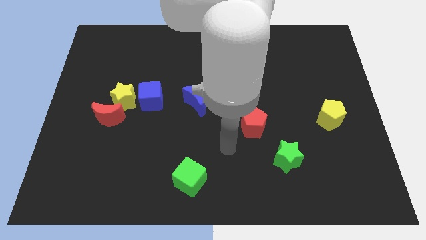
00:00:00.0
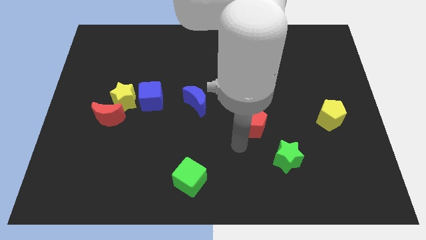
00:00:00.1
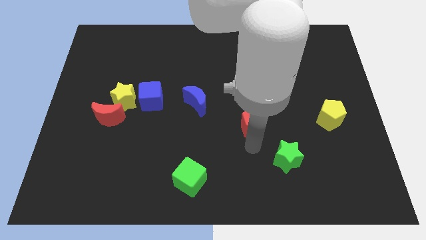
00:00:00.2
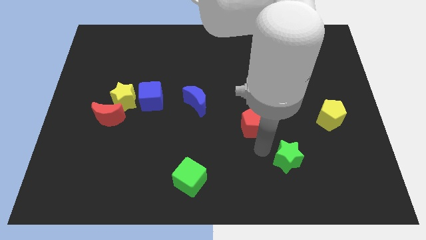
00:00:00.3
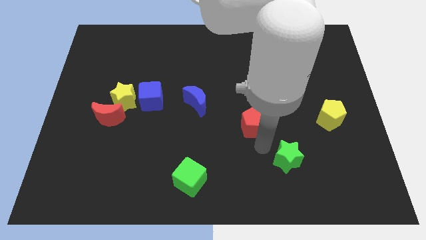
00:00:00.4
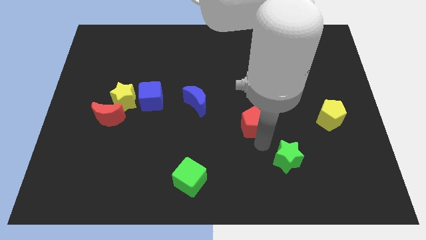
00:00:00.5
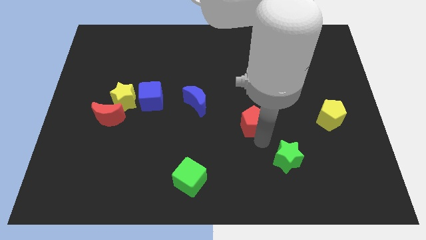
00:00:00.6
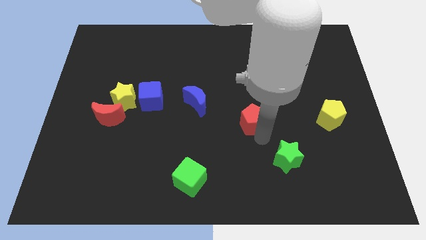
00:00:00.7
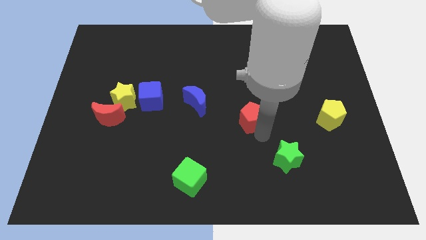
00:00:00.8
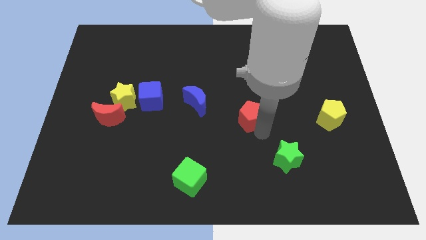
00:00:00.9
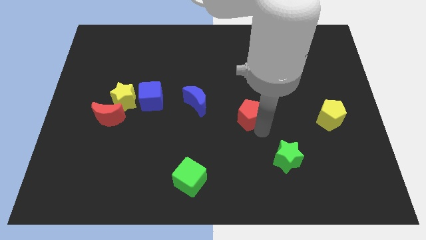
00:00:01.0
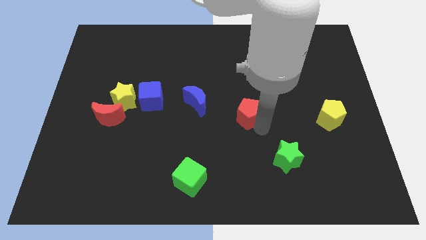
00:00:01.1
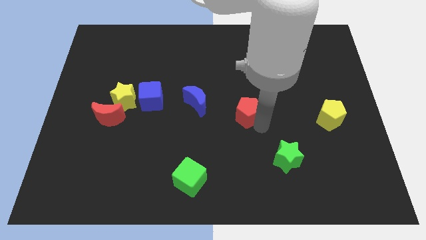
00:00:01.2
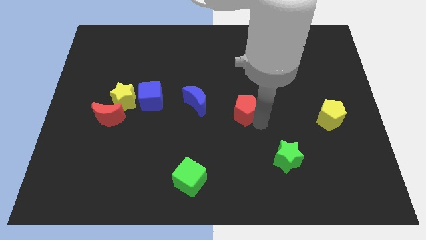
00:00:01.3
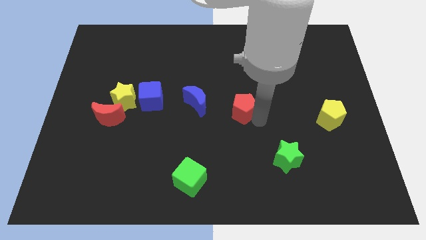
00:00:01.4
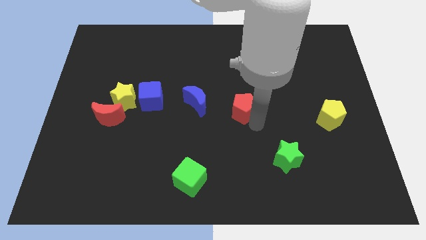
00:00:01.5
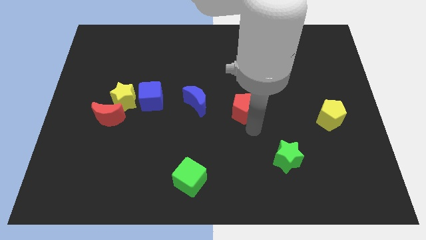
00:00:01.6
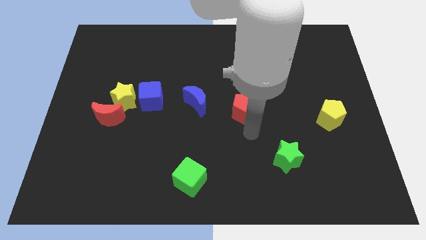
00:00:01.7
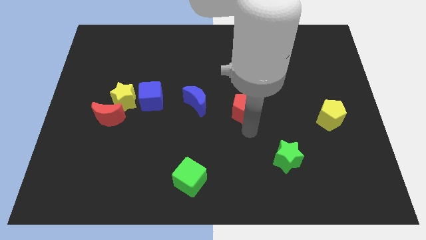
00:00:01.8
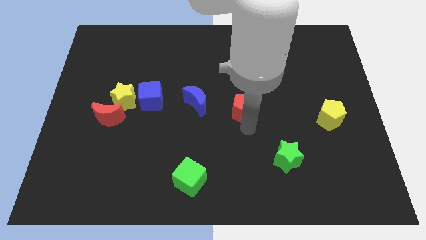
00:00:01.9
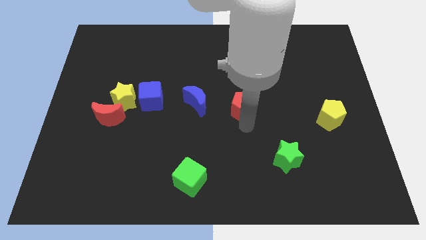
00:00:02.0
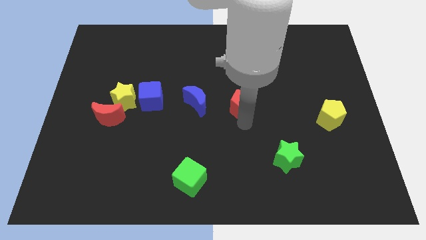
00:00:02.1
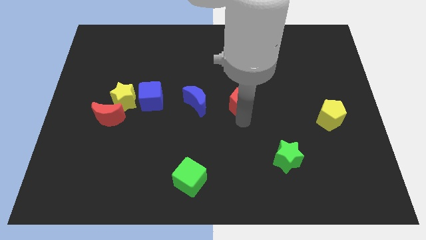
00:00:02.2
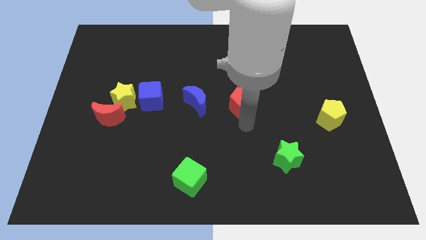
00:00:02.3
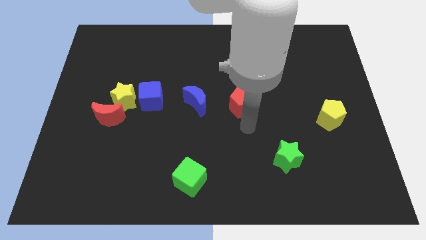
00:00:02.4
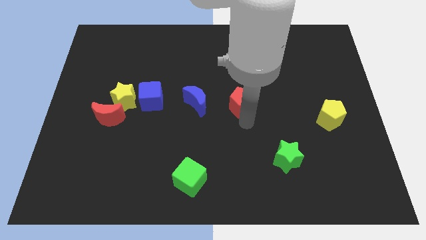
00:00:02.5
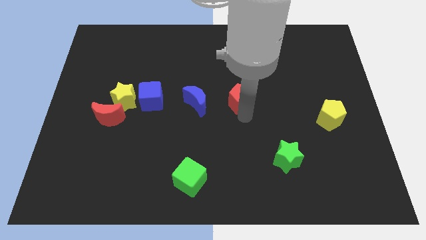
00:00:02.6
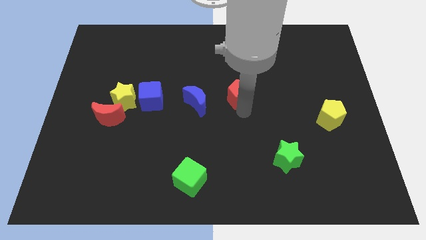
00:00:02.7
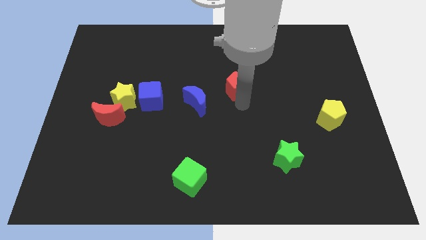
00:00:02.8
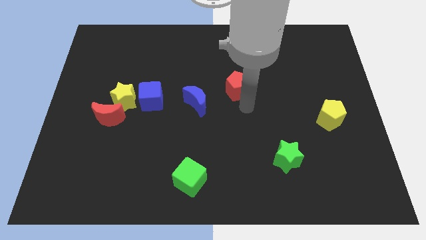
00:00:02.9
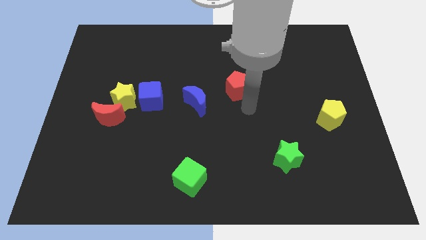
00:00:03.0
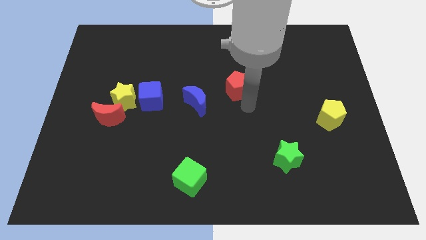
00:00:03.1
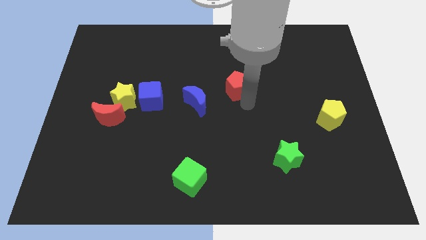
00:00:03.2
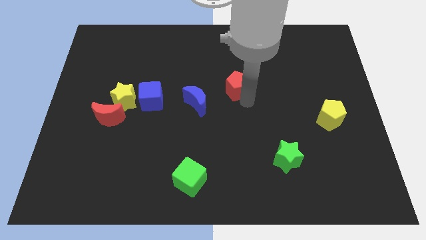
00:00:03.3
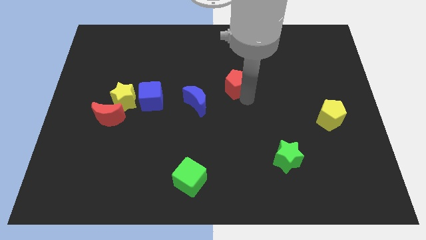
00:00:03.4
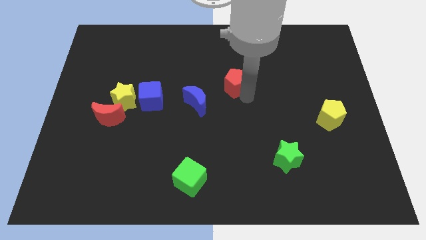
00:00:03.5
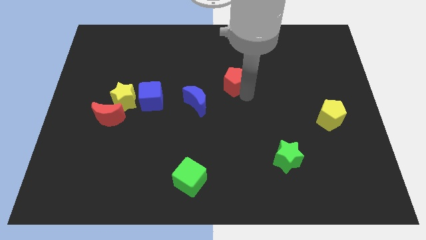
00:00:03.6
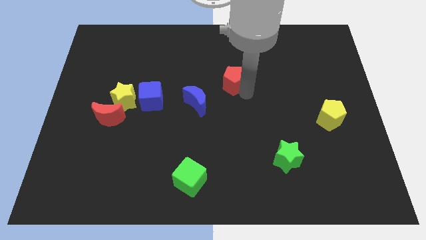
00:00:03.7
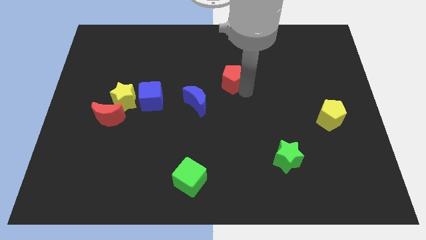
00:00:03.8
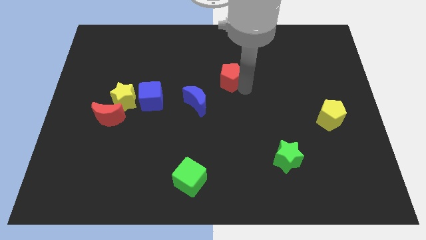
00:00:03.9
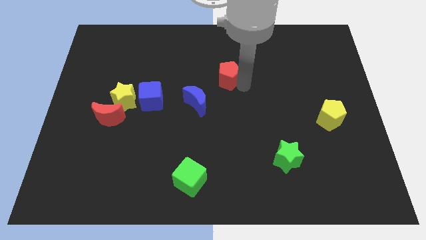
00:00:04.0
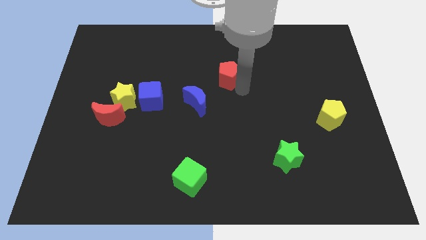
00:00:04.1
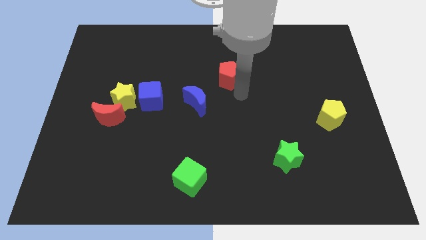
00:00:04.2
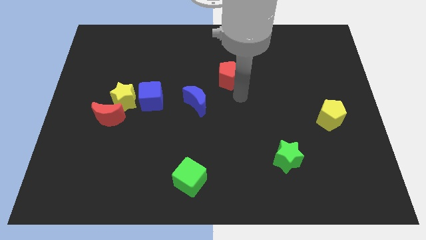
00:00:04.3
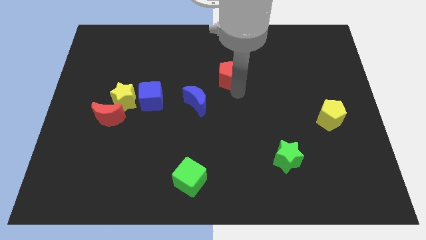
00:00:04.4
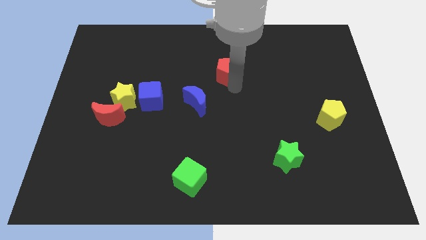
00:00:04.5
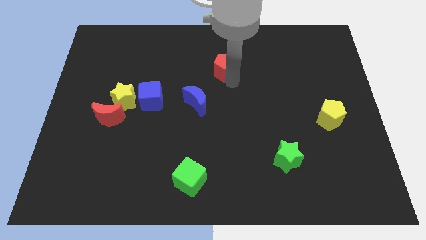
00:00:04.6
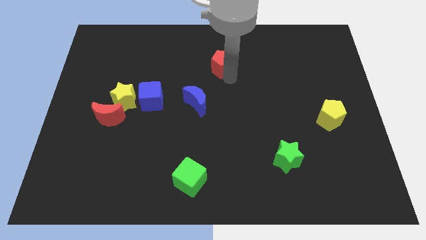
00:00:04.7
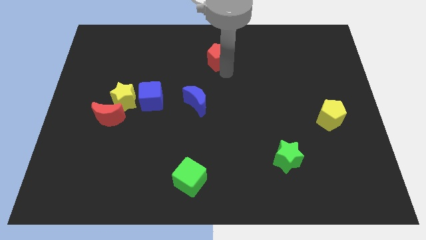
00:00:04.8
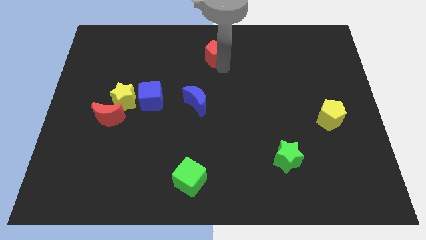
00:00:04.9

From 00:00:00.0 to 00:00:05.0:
put the red pentagon to the towards your base

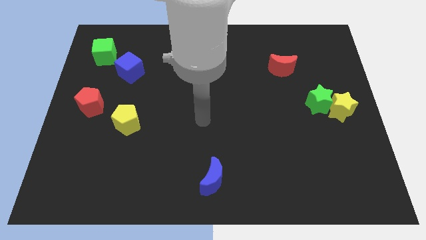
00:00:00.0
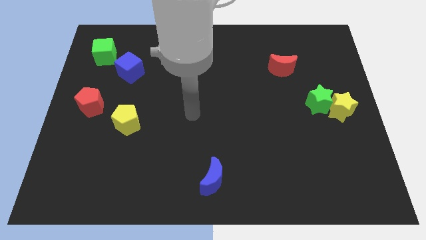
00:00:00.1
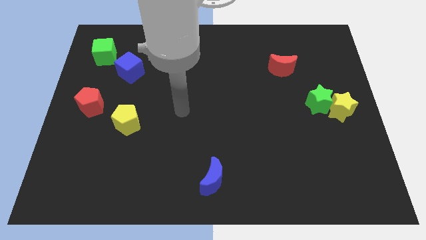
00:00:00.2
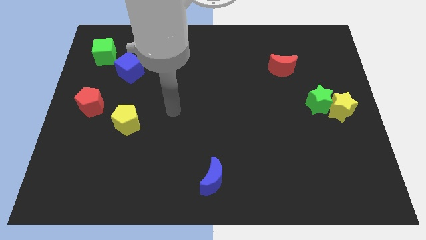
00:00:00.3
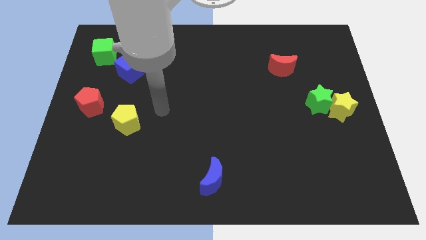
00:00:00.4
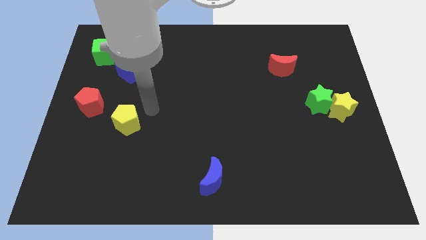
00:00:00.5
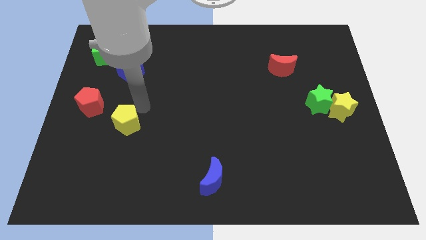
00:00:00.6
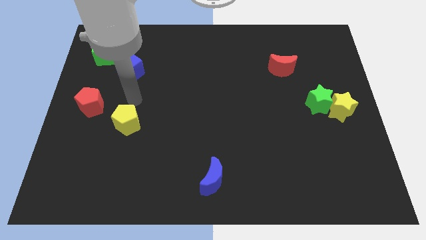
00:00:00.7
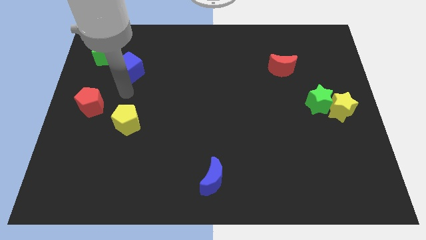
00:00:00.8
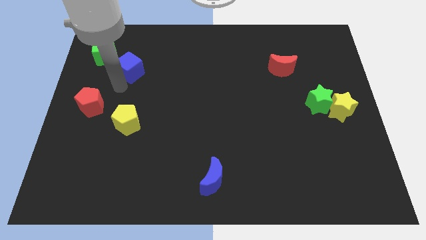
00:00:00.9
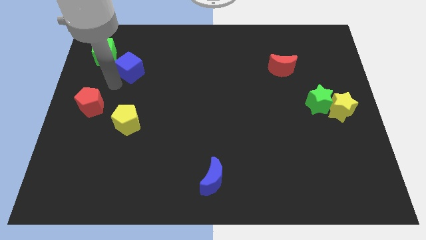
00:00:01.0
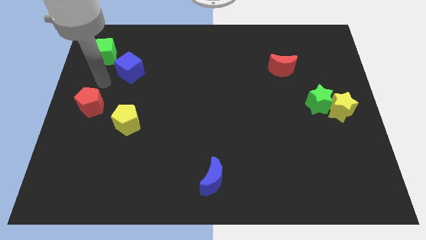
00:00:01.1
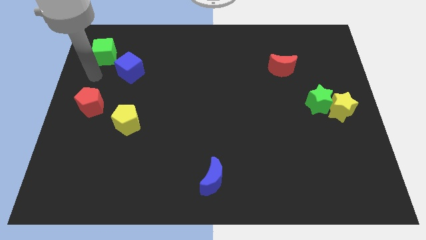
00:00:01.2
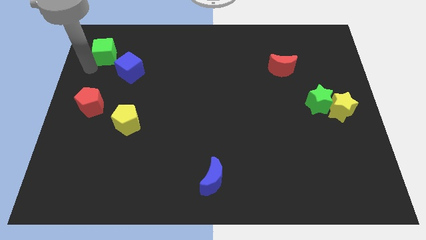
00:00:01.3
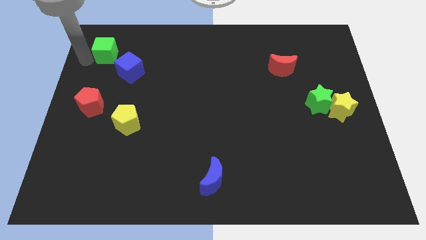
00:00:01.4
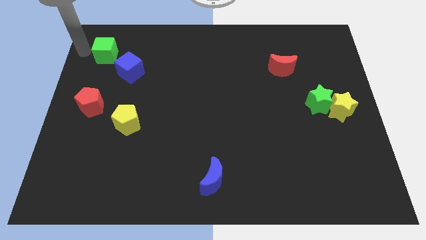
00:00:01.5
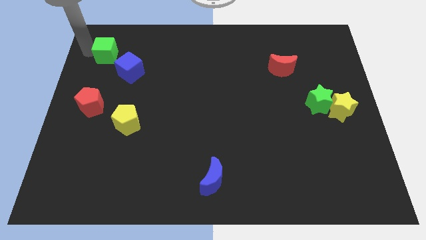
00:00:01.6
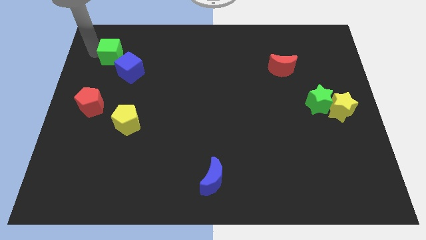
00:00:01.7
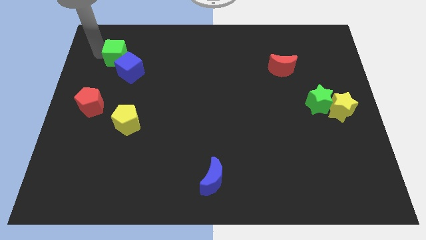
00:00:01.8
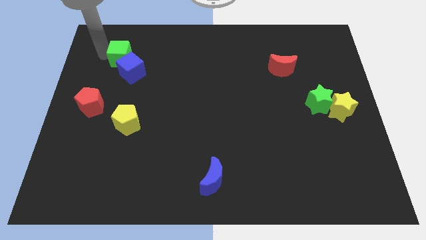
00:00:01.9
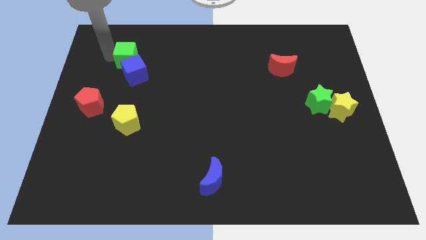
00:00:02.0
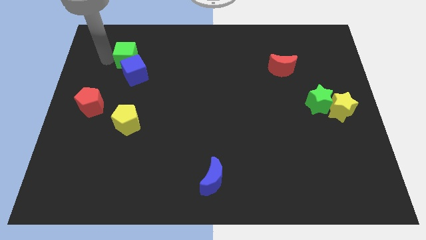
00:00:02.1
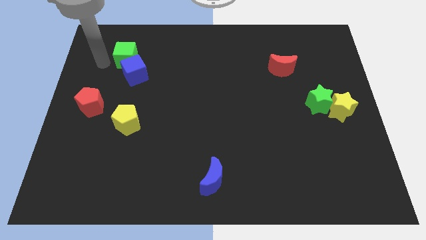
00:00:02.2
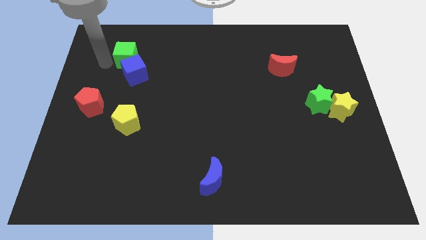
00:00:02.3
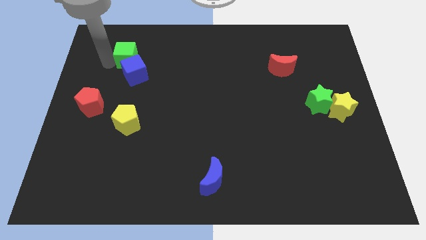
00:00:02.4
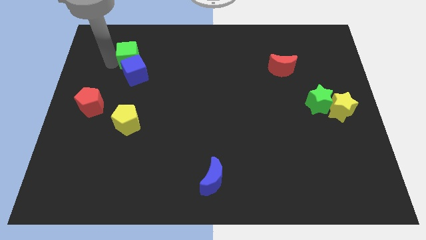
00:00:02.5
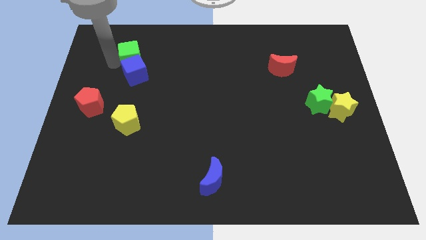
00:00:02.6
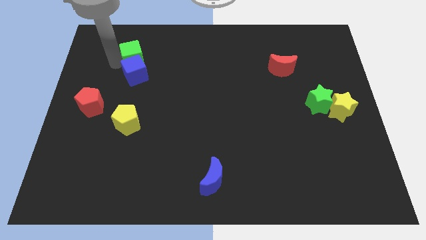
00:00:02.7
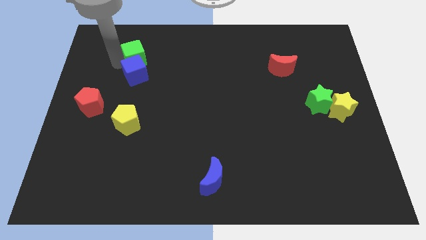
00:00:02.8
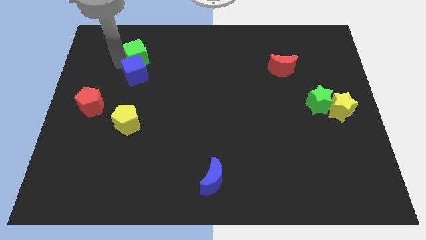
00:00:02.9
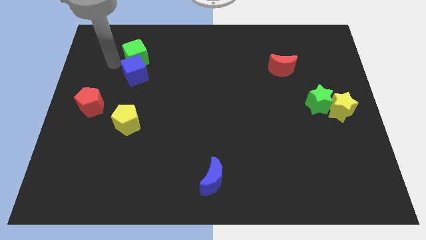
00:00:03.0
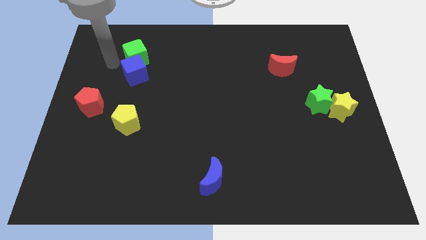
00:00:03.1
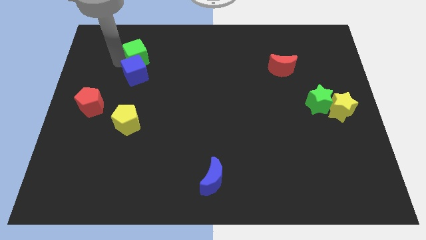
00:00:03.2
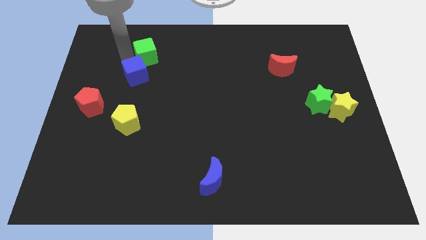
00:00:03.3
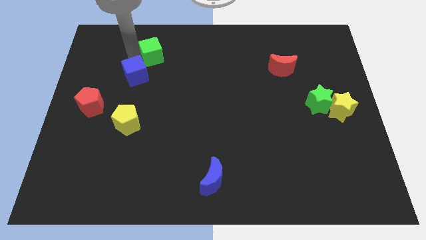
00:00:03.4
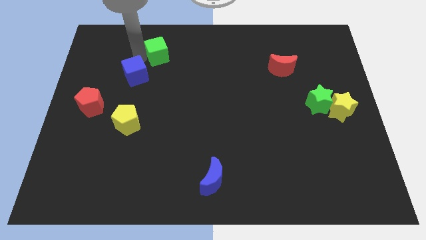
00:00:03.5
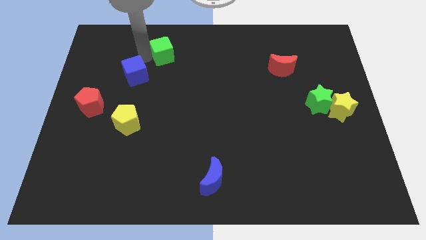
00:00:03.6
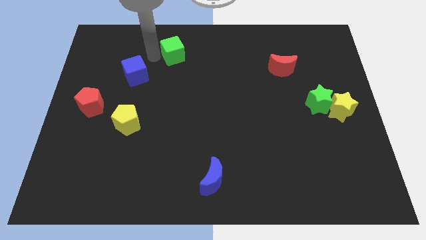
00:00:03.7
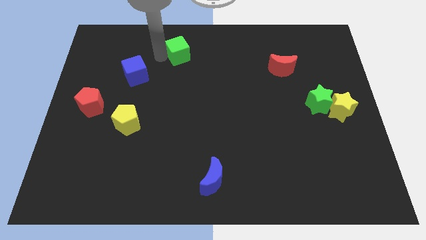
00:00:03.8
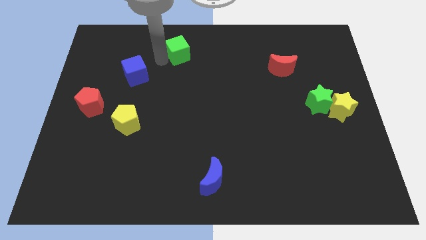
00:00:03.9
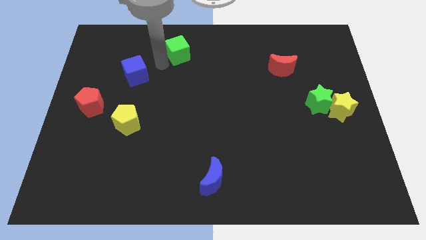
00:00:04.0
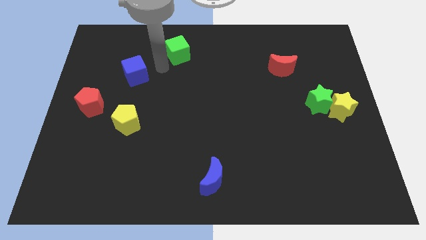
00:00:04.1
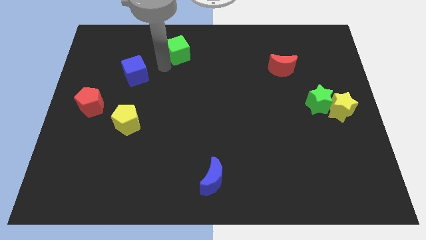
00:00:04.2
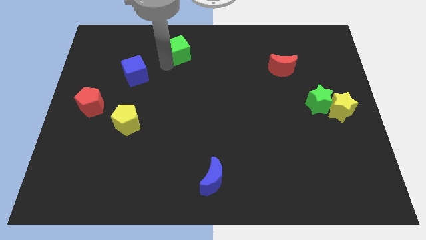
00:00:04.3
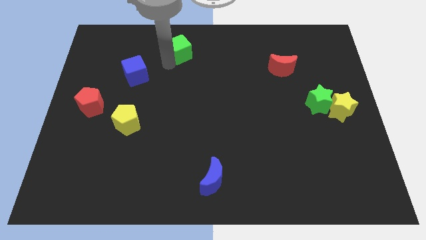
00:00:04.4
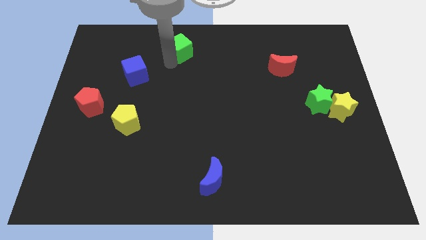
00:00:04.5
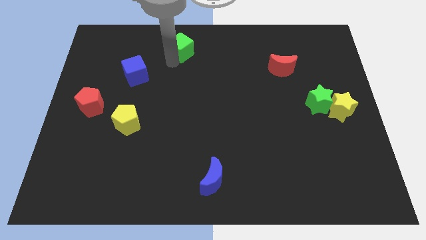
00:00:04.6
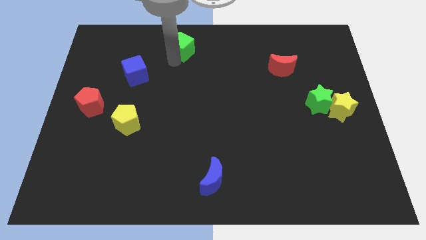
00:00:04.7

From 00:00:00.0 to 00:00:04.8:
put the green cube to the towards your base
